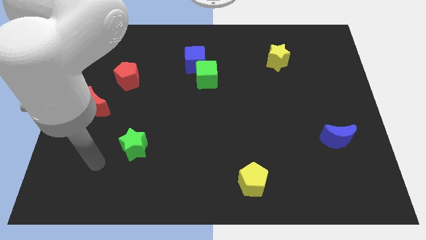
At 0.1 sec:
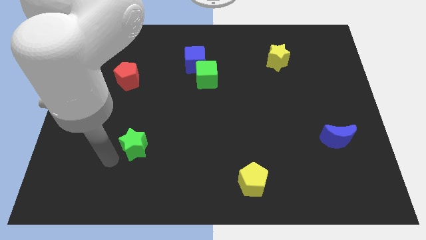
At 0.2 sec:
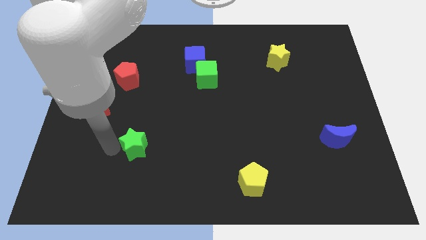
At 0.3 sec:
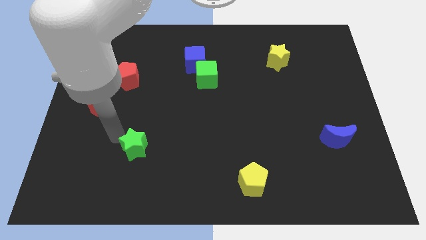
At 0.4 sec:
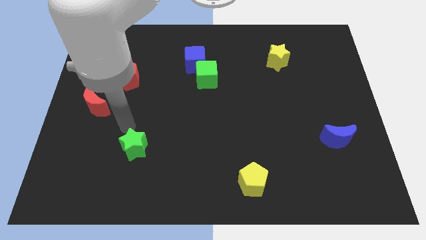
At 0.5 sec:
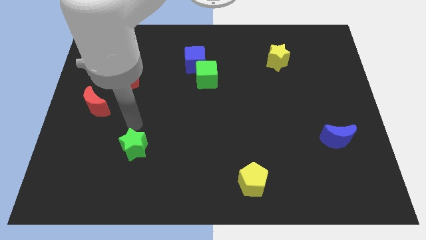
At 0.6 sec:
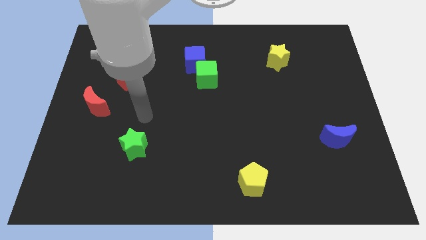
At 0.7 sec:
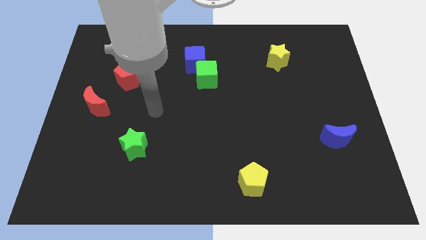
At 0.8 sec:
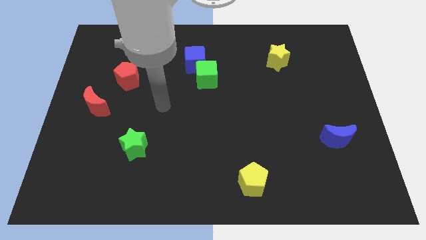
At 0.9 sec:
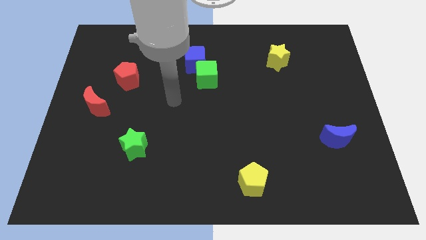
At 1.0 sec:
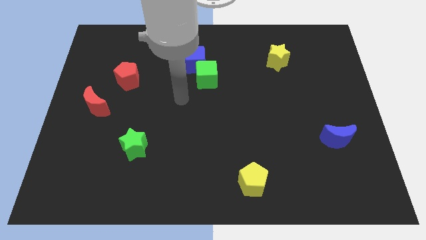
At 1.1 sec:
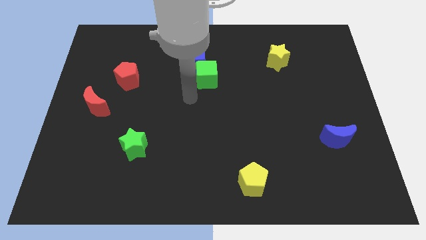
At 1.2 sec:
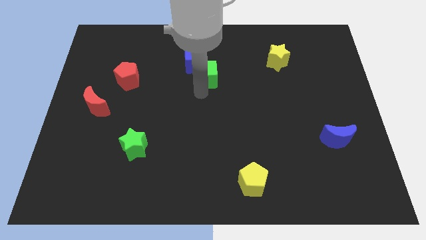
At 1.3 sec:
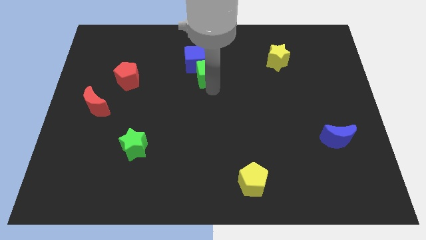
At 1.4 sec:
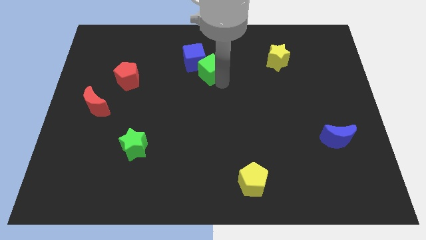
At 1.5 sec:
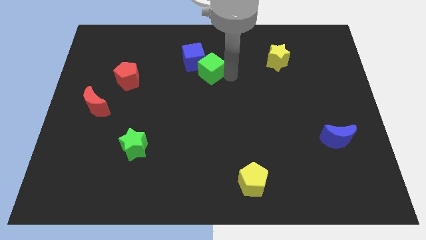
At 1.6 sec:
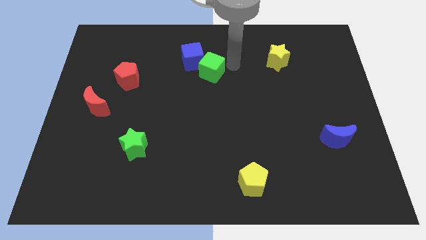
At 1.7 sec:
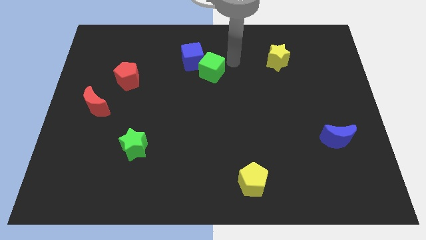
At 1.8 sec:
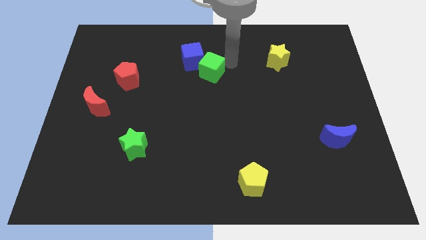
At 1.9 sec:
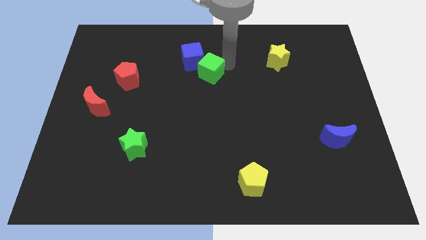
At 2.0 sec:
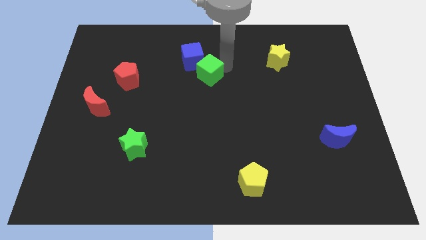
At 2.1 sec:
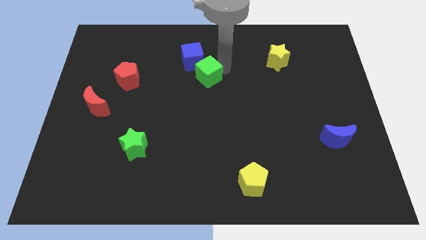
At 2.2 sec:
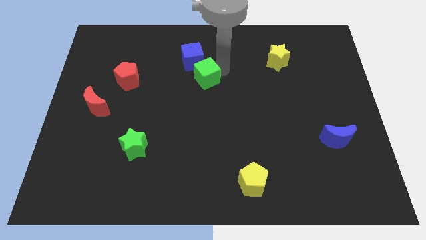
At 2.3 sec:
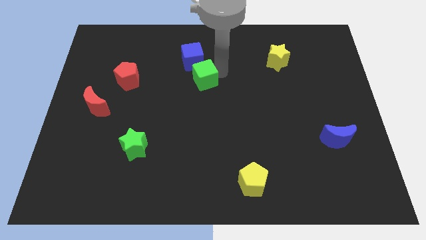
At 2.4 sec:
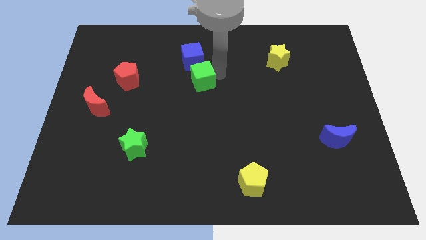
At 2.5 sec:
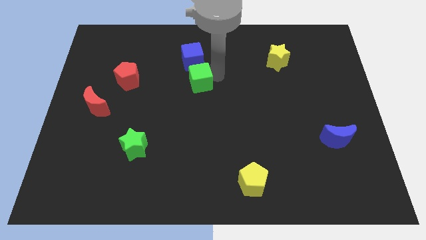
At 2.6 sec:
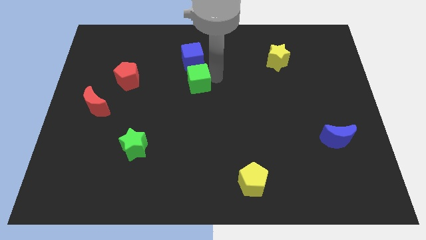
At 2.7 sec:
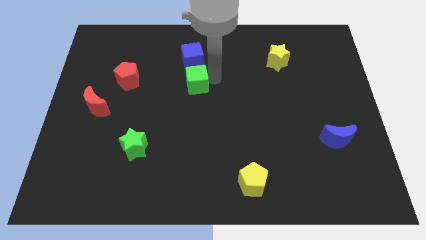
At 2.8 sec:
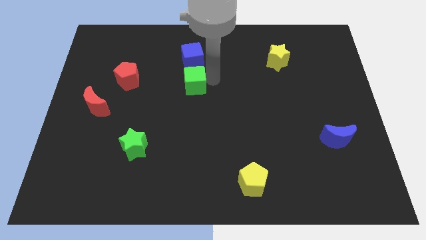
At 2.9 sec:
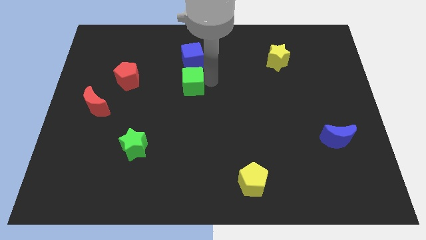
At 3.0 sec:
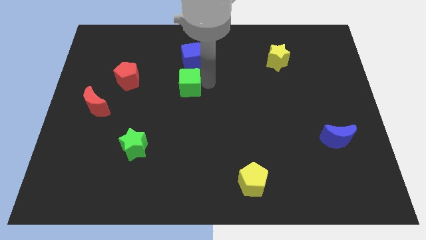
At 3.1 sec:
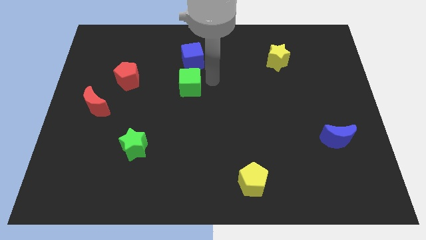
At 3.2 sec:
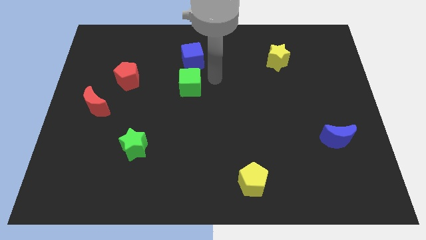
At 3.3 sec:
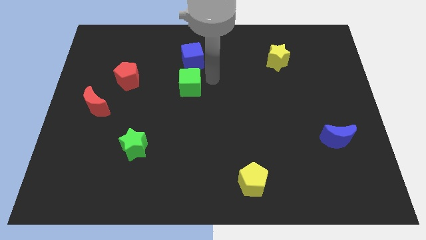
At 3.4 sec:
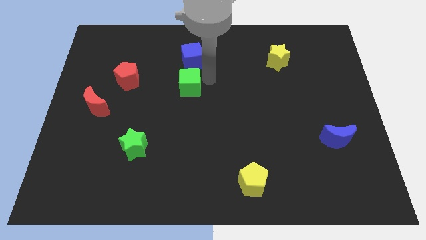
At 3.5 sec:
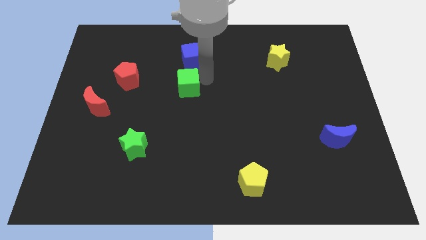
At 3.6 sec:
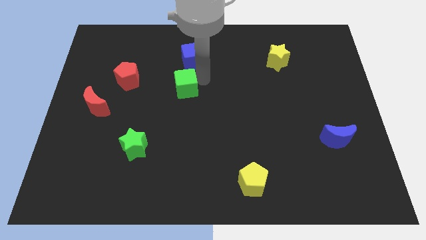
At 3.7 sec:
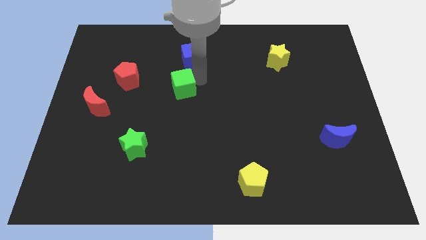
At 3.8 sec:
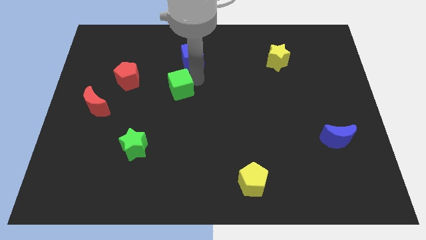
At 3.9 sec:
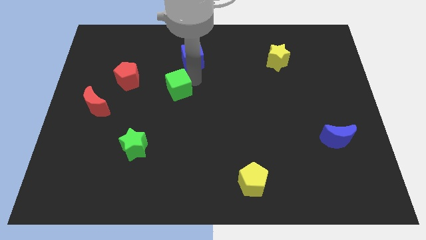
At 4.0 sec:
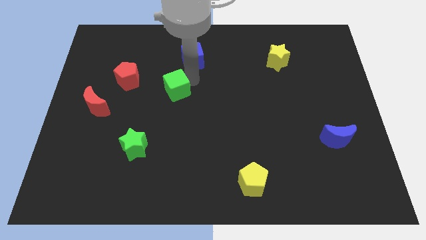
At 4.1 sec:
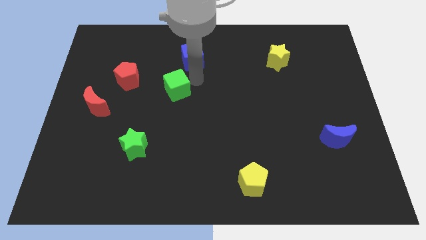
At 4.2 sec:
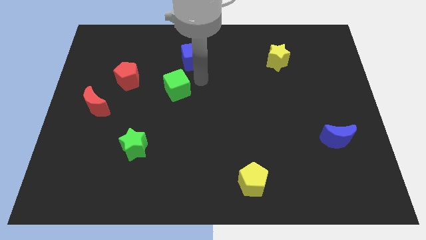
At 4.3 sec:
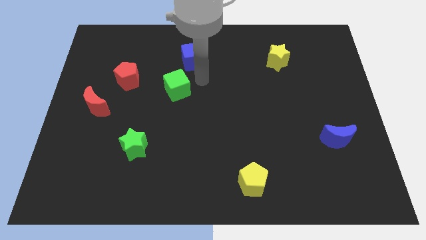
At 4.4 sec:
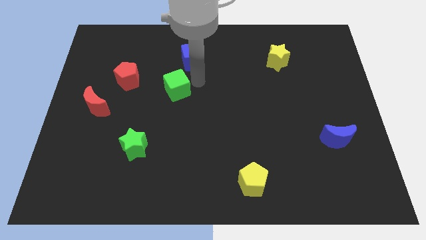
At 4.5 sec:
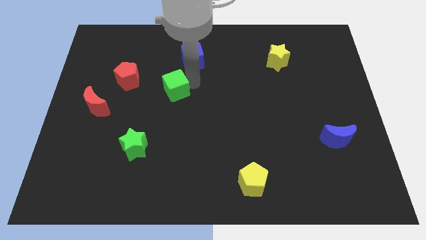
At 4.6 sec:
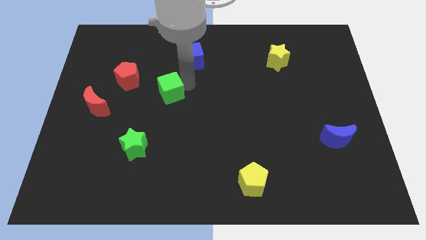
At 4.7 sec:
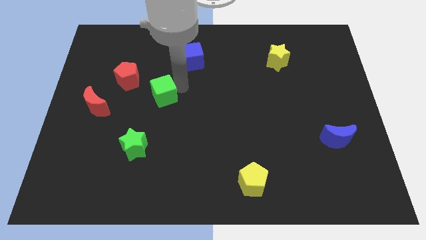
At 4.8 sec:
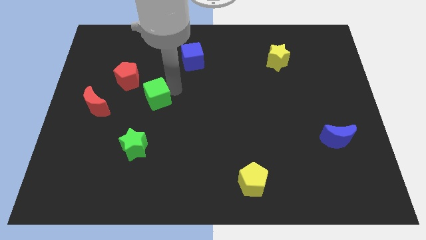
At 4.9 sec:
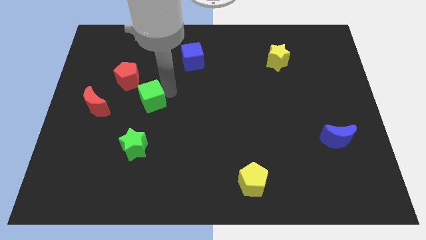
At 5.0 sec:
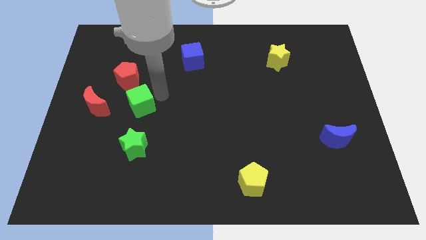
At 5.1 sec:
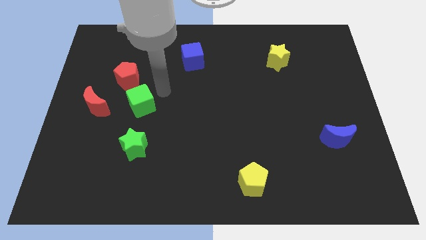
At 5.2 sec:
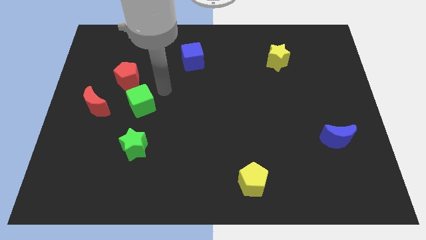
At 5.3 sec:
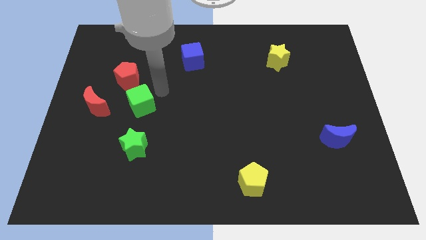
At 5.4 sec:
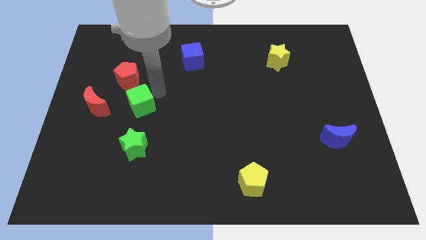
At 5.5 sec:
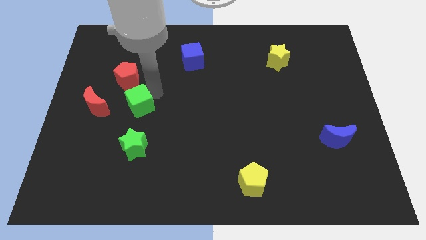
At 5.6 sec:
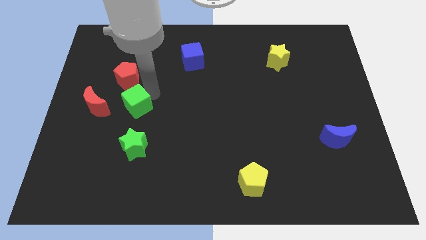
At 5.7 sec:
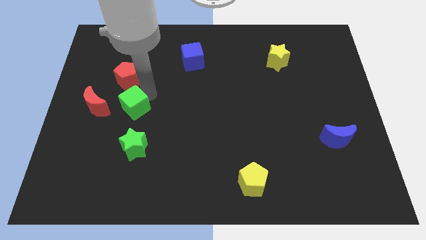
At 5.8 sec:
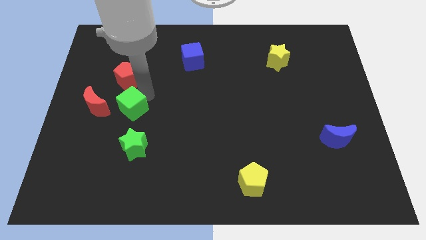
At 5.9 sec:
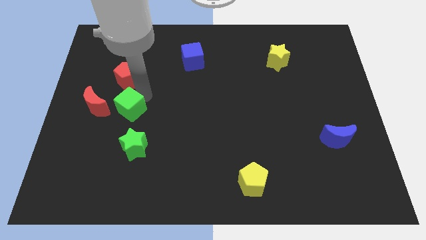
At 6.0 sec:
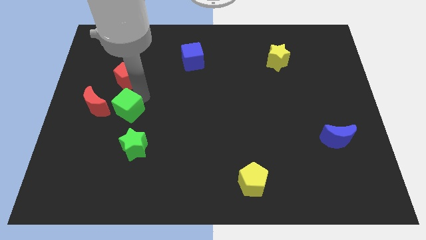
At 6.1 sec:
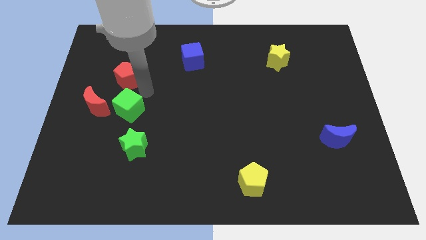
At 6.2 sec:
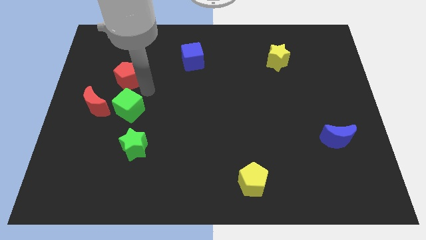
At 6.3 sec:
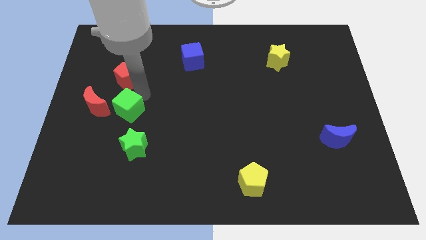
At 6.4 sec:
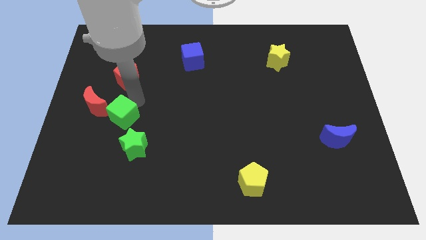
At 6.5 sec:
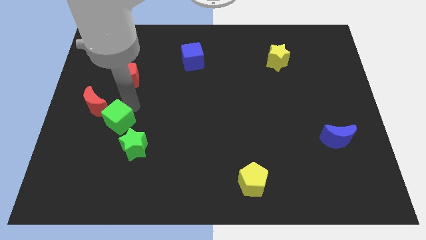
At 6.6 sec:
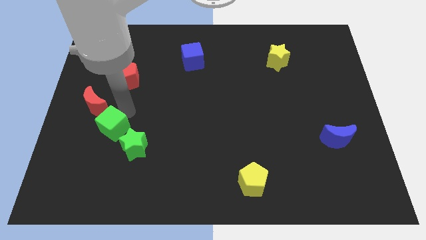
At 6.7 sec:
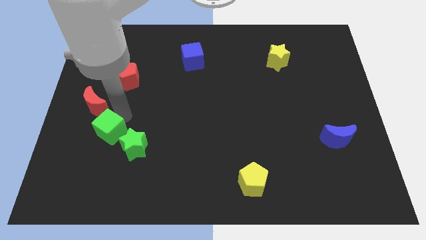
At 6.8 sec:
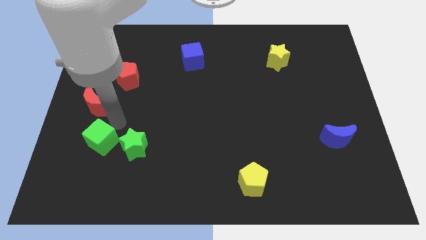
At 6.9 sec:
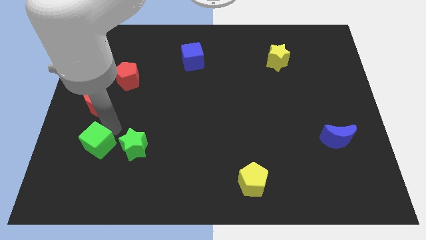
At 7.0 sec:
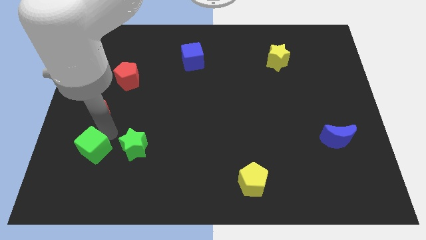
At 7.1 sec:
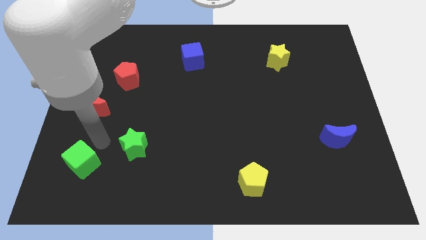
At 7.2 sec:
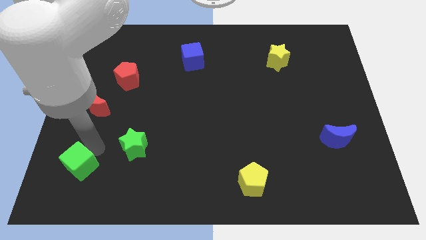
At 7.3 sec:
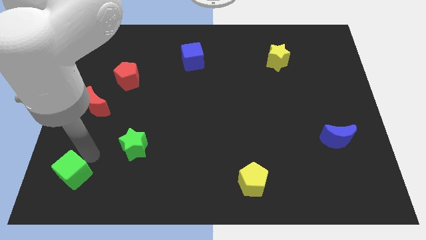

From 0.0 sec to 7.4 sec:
push the green cube to the bottom left corner
